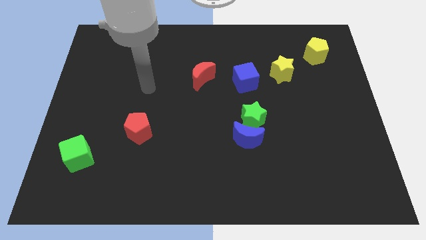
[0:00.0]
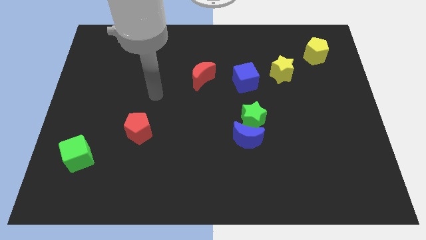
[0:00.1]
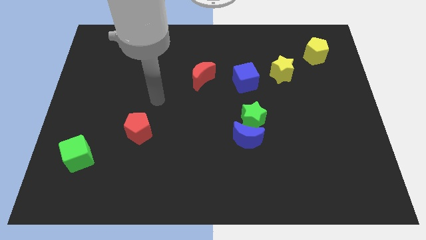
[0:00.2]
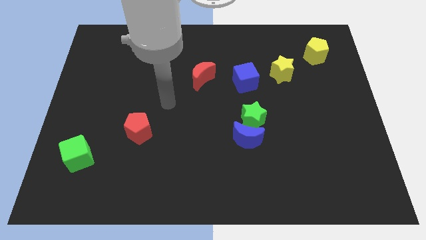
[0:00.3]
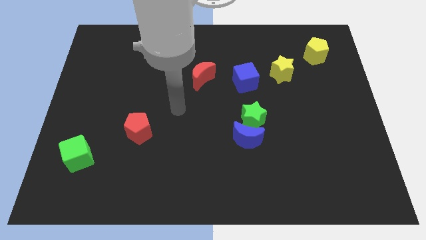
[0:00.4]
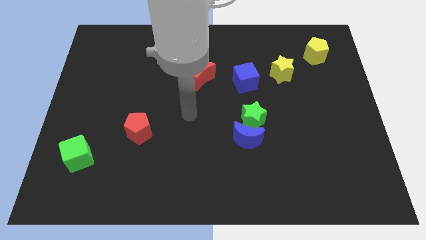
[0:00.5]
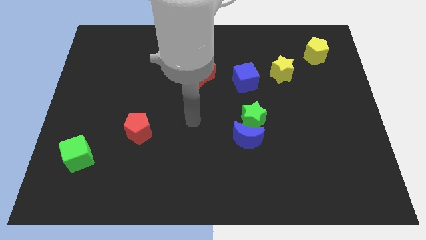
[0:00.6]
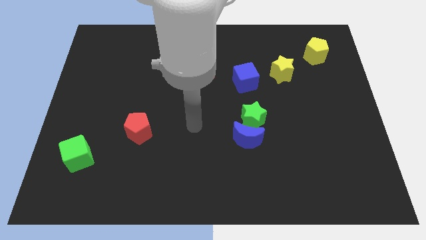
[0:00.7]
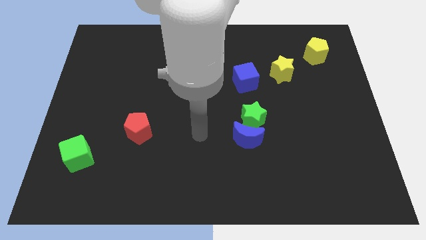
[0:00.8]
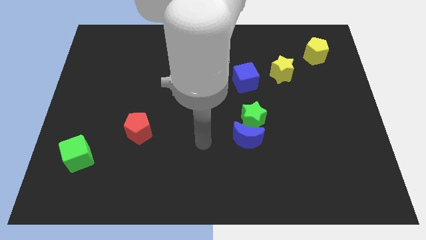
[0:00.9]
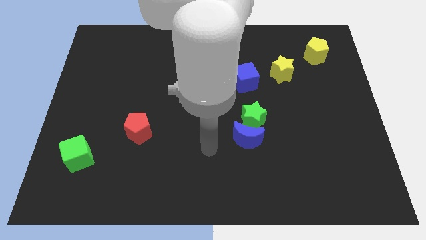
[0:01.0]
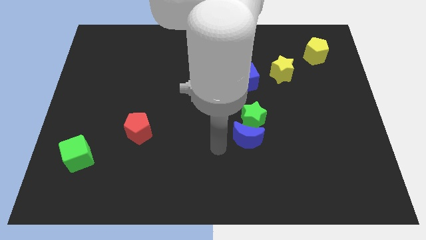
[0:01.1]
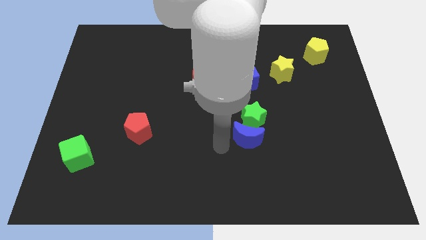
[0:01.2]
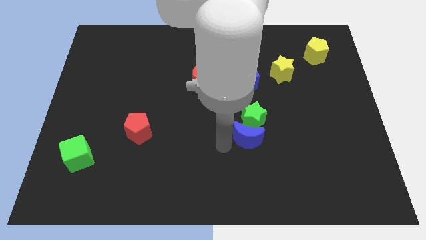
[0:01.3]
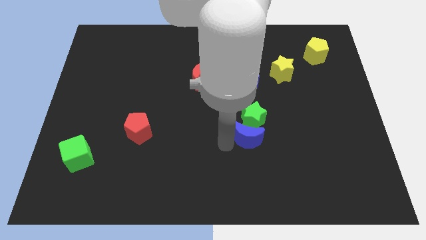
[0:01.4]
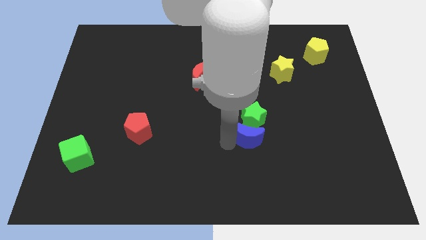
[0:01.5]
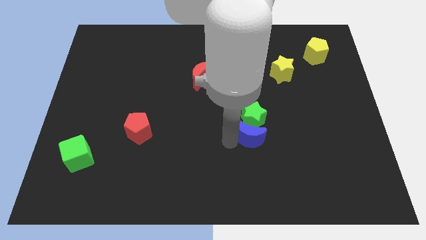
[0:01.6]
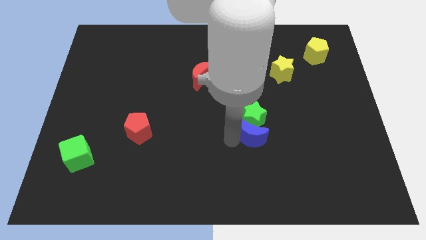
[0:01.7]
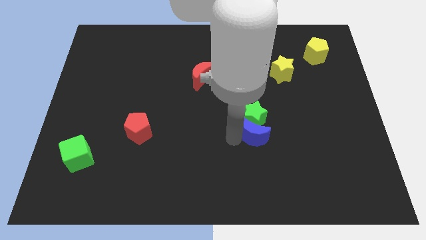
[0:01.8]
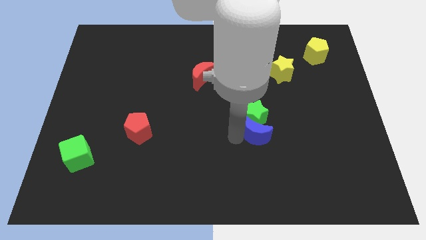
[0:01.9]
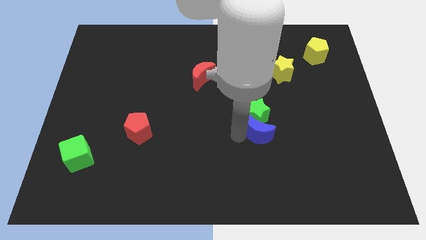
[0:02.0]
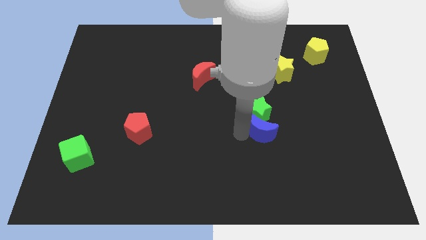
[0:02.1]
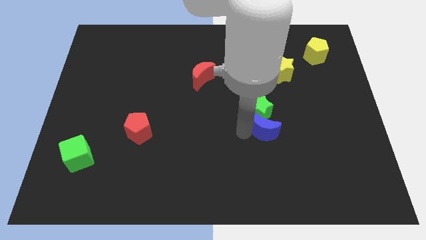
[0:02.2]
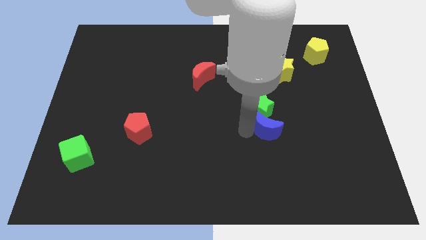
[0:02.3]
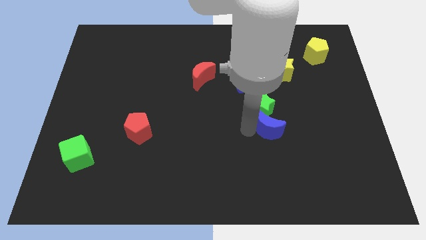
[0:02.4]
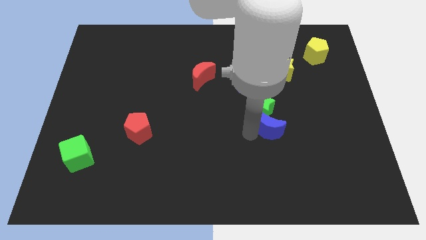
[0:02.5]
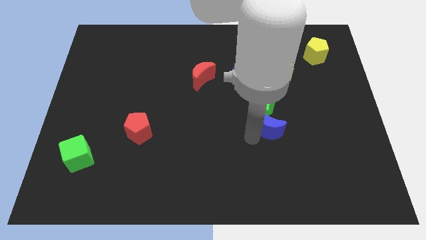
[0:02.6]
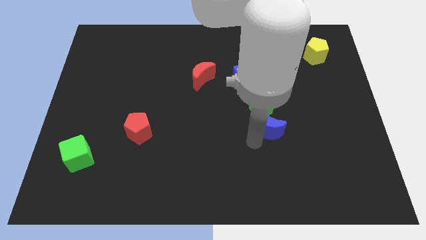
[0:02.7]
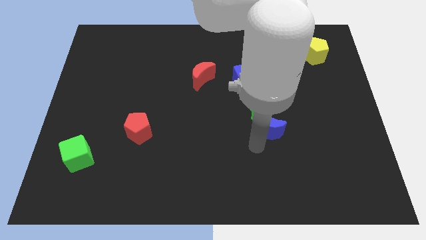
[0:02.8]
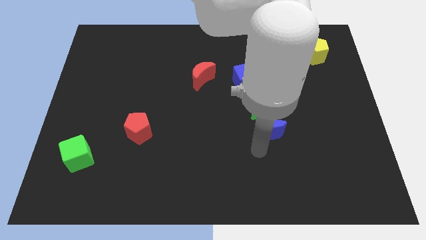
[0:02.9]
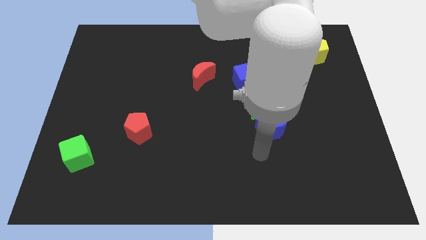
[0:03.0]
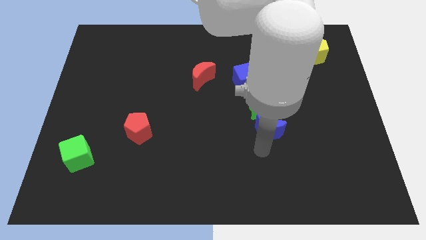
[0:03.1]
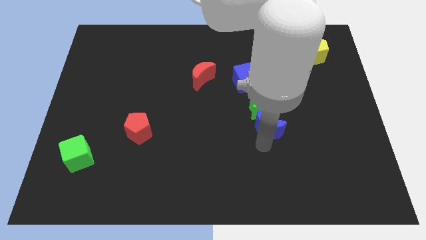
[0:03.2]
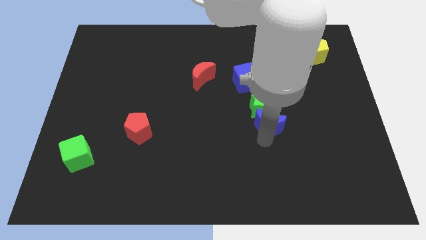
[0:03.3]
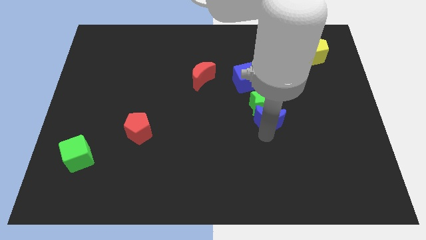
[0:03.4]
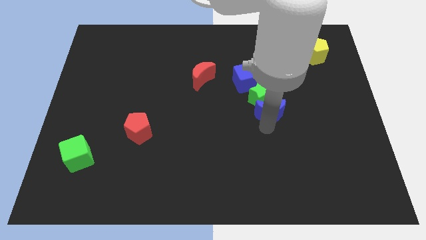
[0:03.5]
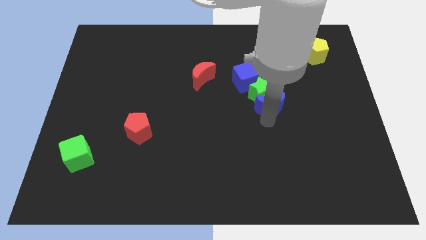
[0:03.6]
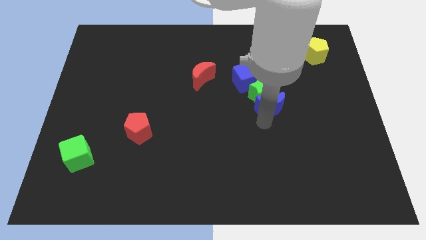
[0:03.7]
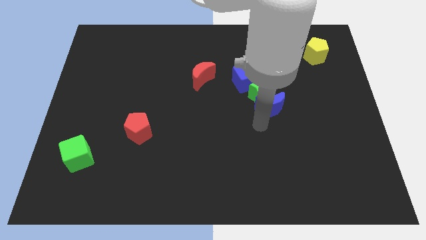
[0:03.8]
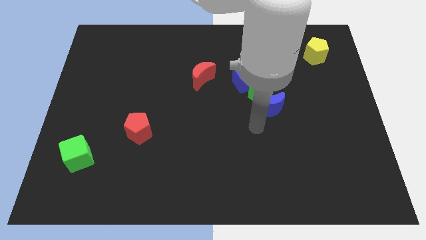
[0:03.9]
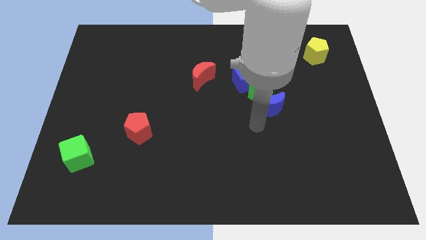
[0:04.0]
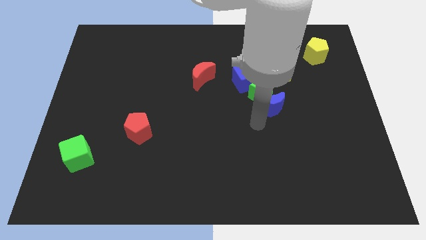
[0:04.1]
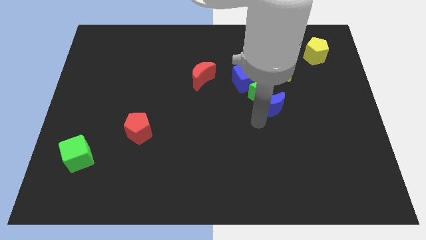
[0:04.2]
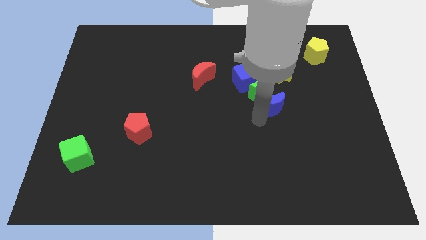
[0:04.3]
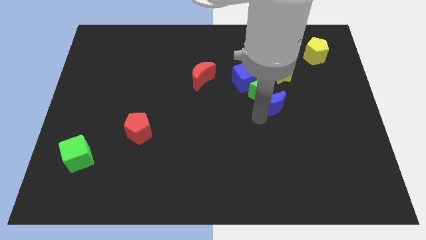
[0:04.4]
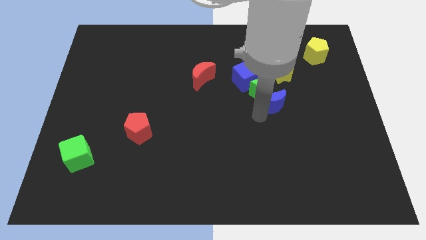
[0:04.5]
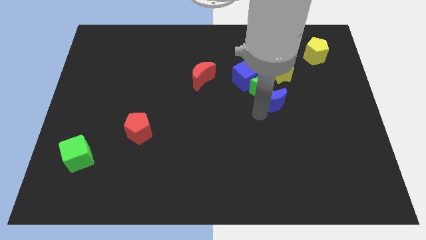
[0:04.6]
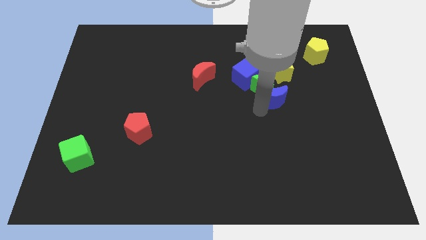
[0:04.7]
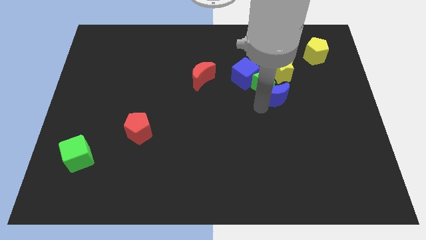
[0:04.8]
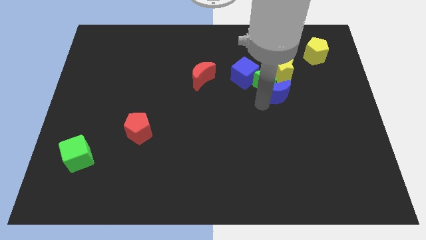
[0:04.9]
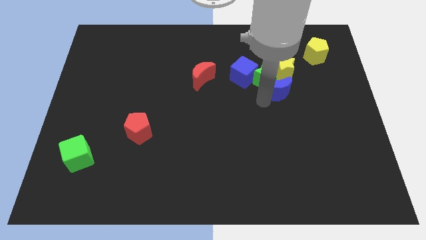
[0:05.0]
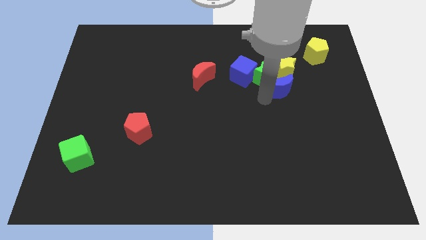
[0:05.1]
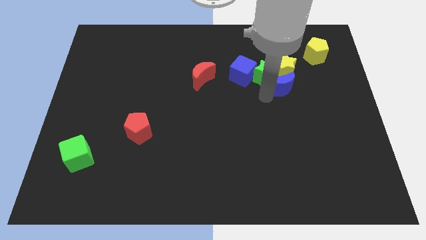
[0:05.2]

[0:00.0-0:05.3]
slide the blue moon close to the yellow star

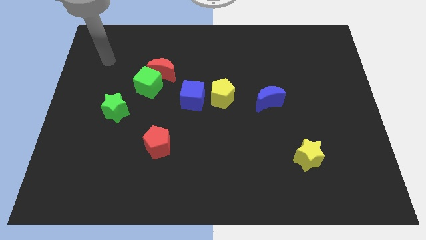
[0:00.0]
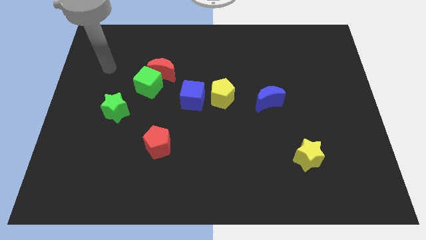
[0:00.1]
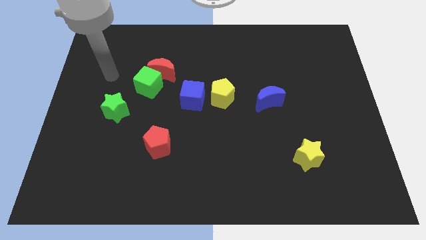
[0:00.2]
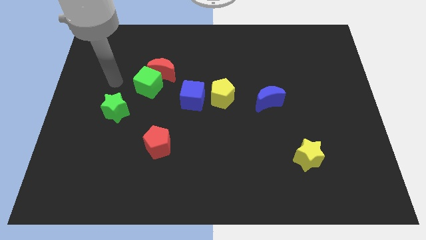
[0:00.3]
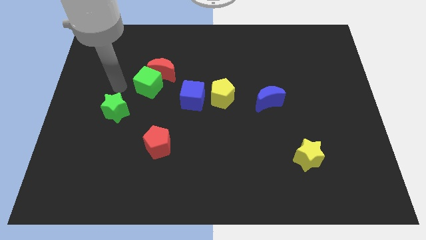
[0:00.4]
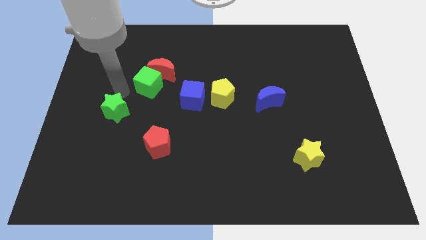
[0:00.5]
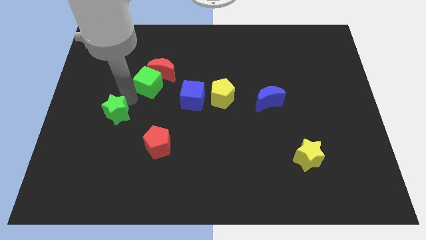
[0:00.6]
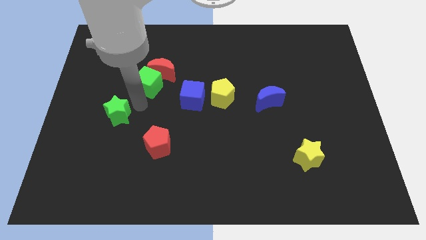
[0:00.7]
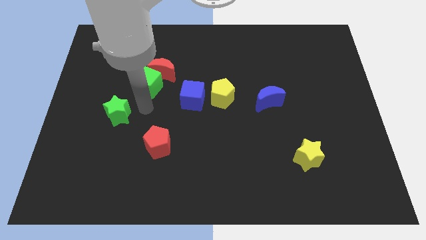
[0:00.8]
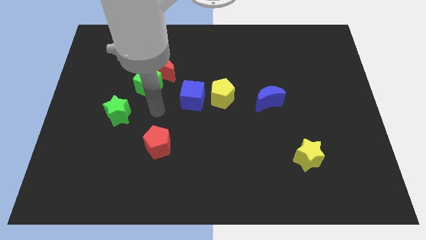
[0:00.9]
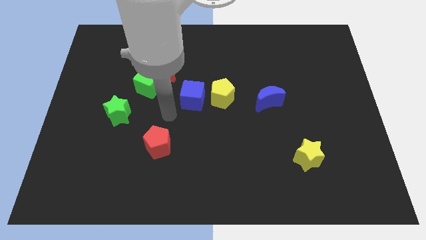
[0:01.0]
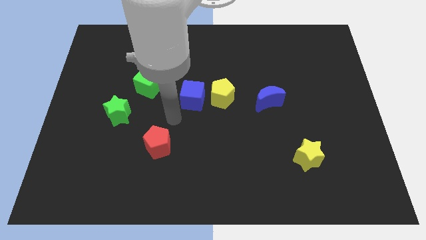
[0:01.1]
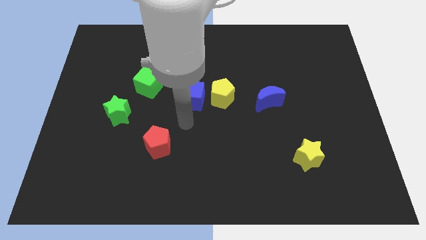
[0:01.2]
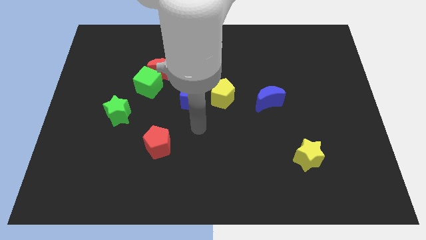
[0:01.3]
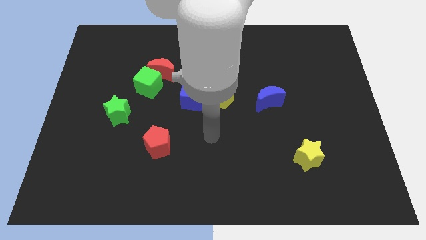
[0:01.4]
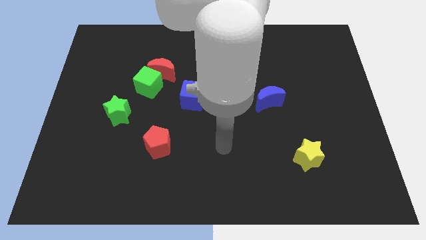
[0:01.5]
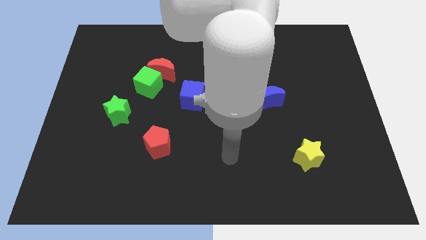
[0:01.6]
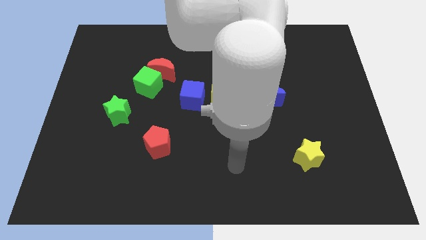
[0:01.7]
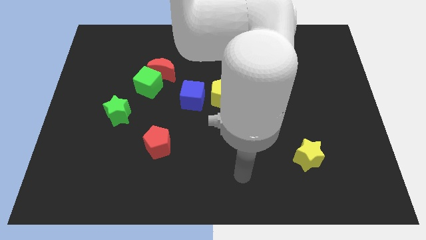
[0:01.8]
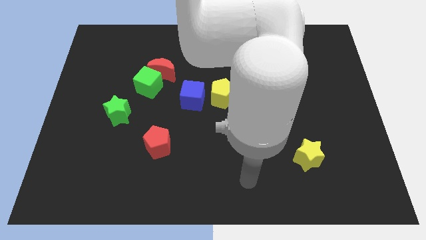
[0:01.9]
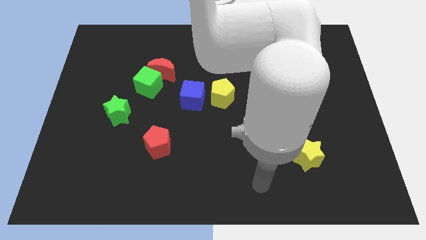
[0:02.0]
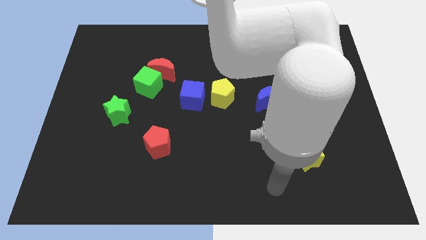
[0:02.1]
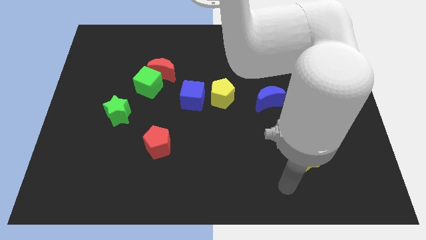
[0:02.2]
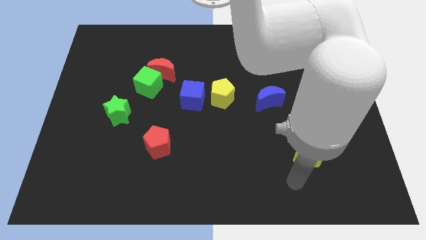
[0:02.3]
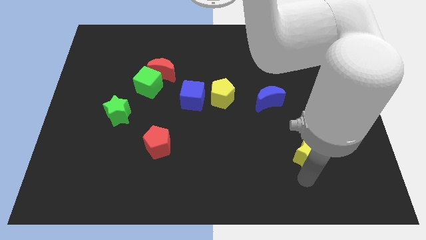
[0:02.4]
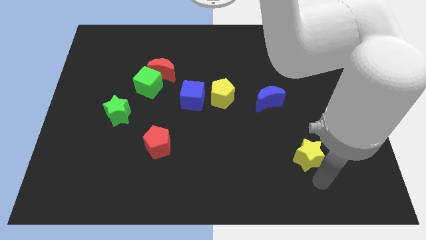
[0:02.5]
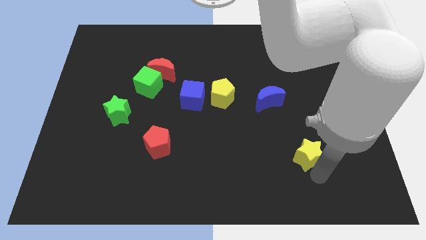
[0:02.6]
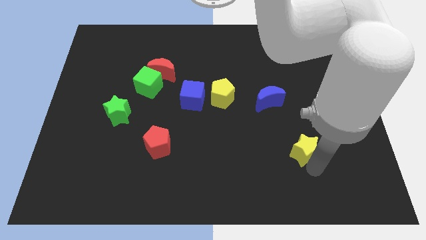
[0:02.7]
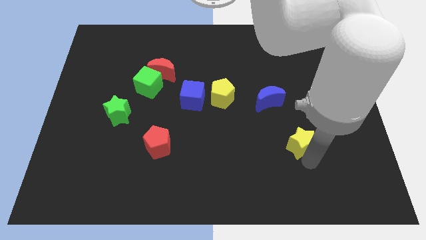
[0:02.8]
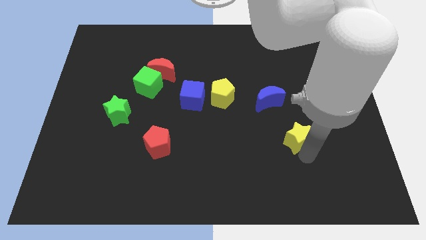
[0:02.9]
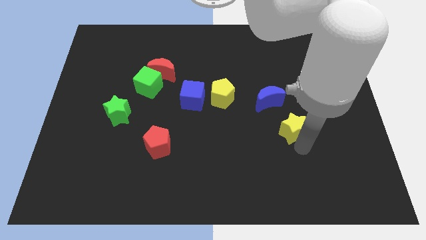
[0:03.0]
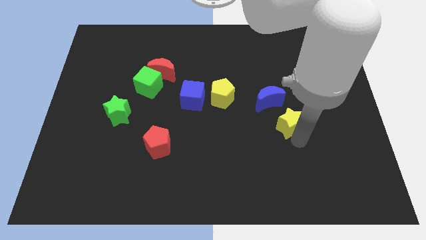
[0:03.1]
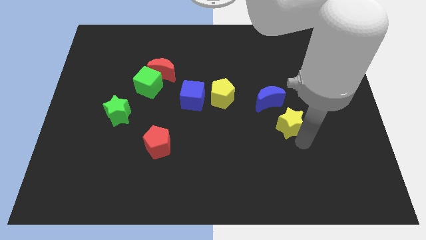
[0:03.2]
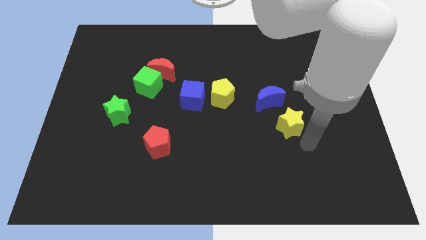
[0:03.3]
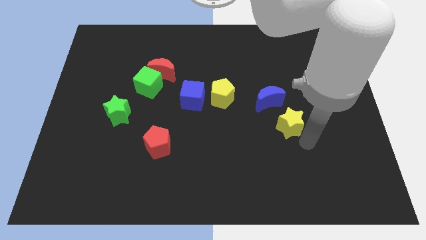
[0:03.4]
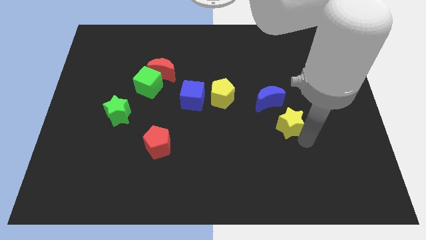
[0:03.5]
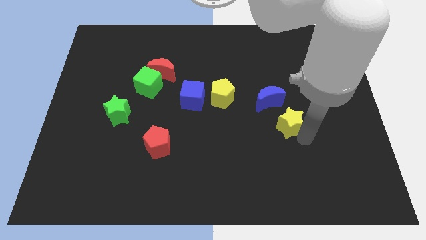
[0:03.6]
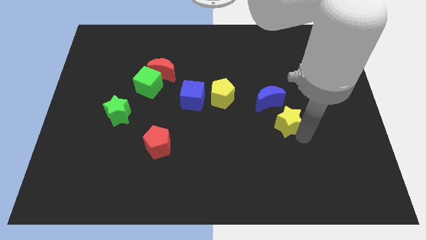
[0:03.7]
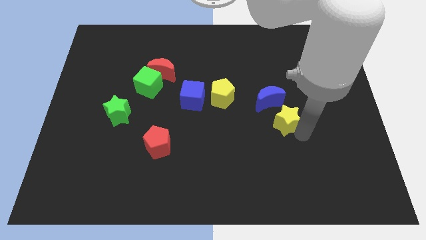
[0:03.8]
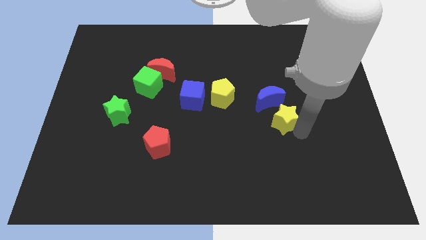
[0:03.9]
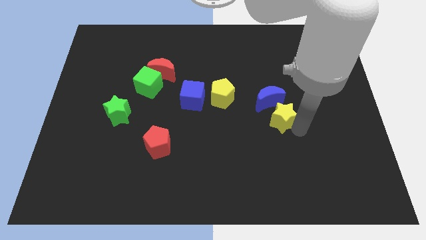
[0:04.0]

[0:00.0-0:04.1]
push the yellow star towards the blue moon
